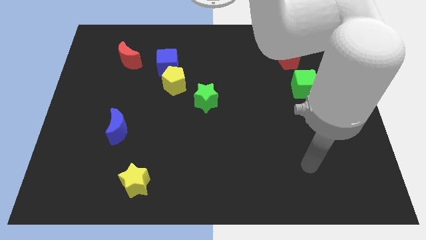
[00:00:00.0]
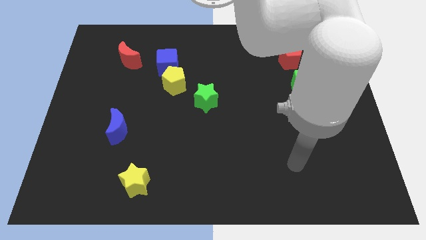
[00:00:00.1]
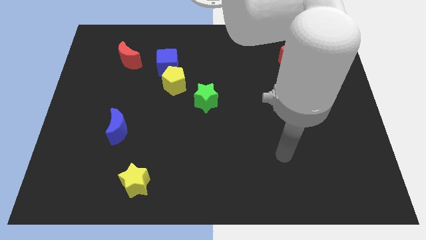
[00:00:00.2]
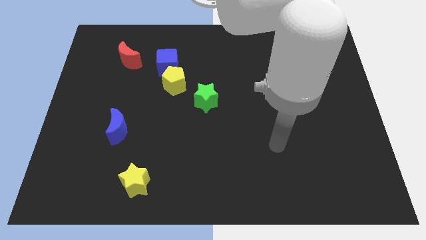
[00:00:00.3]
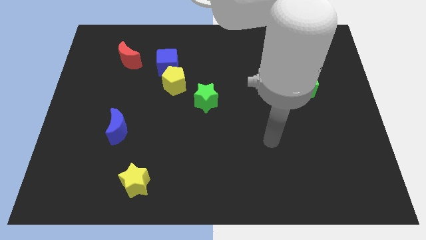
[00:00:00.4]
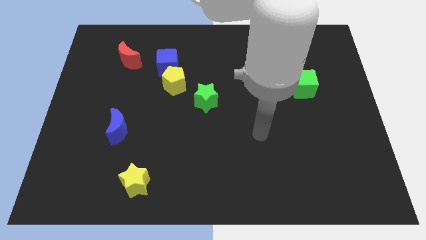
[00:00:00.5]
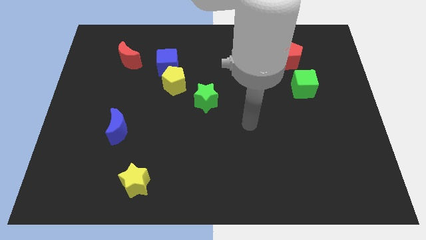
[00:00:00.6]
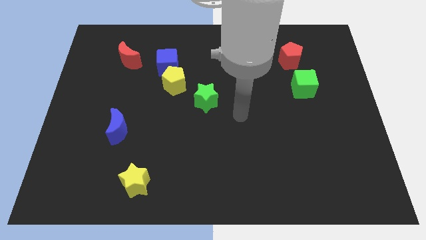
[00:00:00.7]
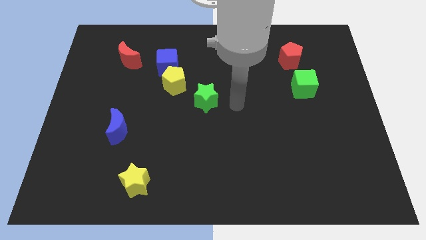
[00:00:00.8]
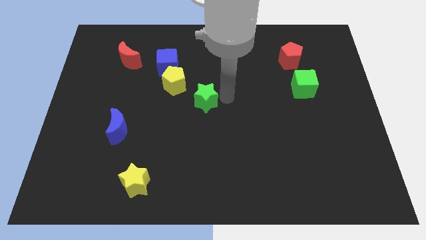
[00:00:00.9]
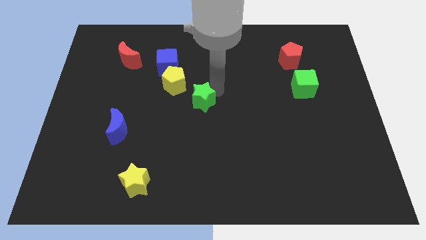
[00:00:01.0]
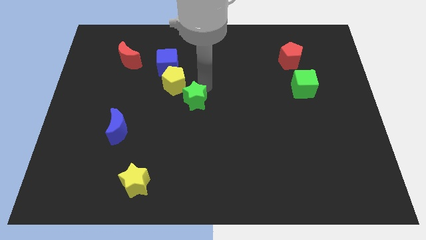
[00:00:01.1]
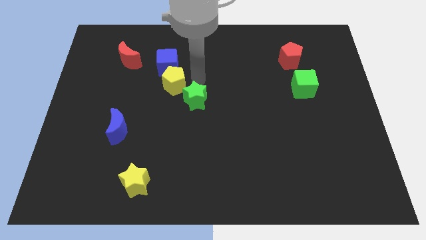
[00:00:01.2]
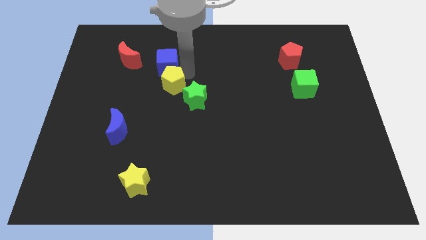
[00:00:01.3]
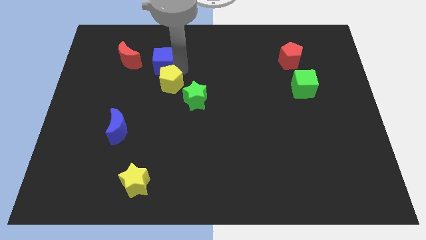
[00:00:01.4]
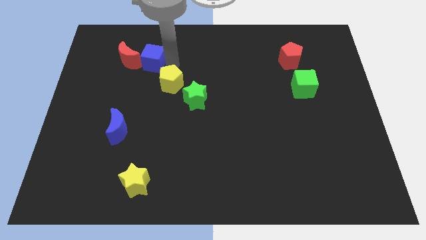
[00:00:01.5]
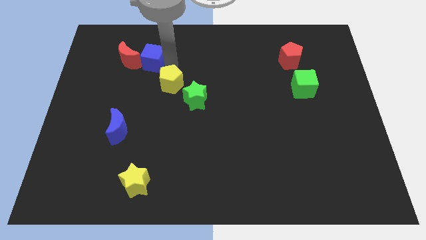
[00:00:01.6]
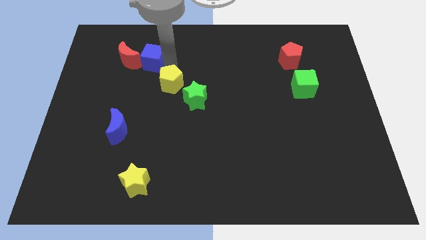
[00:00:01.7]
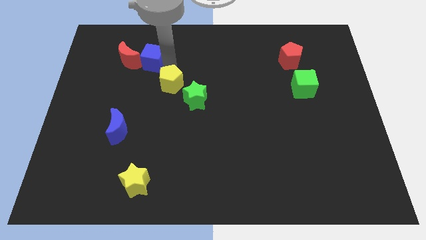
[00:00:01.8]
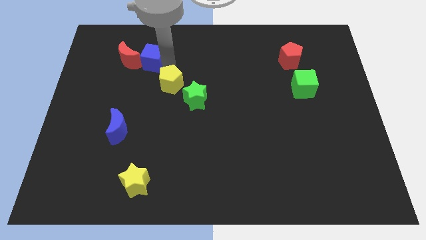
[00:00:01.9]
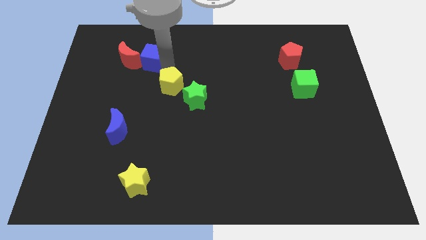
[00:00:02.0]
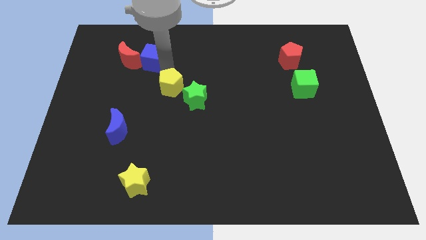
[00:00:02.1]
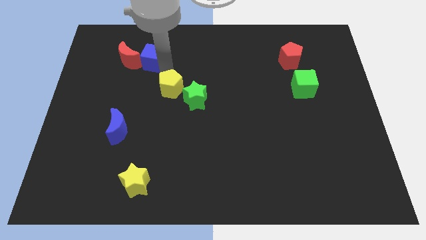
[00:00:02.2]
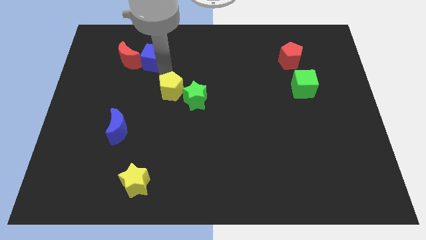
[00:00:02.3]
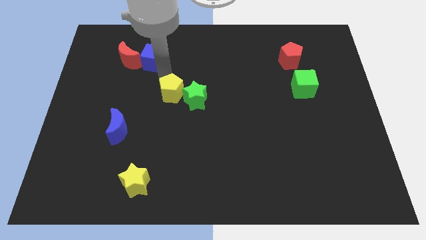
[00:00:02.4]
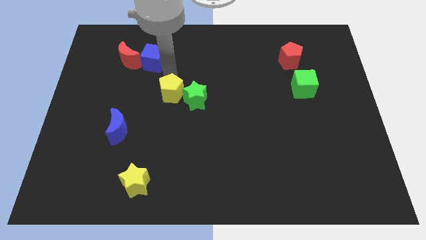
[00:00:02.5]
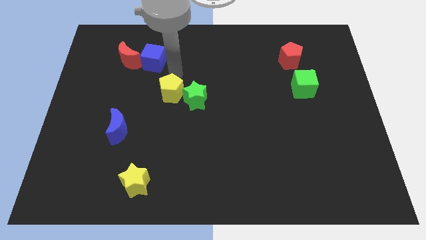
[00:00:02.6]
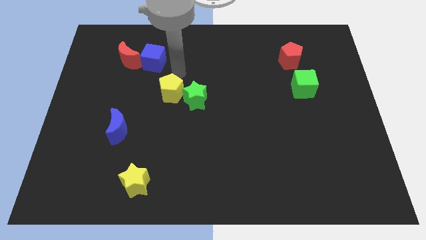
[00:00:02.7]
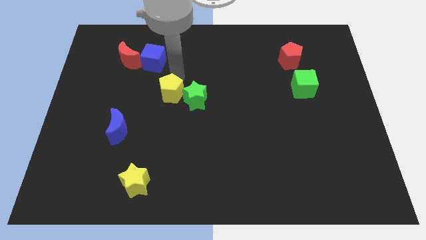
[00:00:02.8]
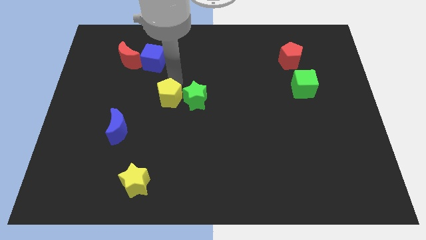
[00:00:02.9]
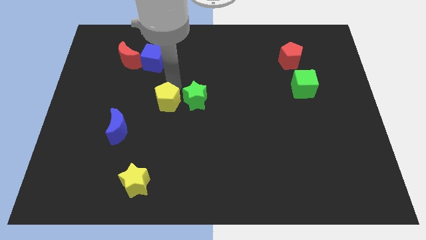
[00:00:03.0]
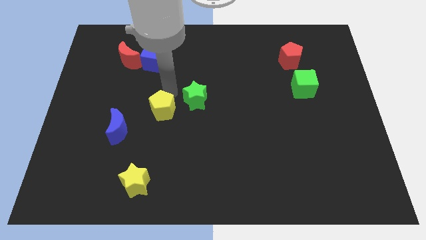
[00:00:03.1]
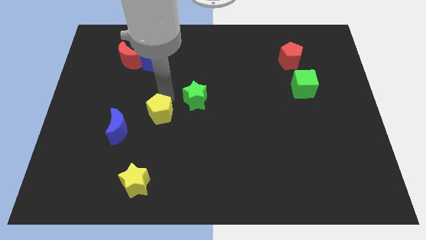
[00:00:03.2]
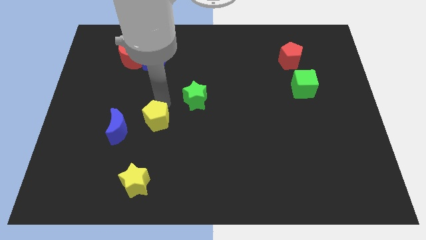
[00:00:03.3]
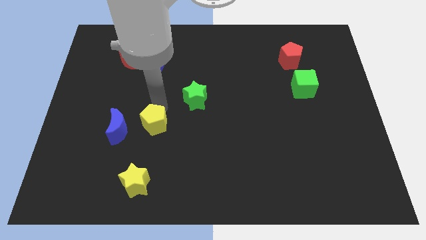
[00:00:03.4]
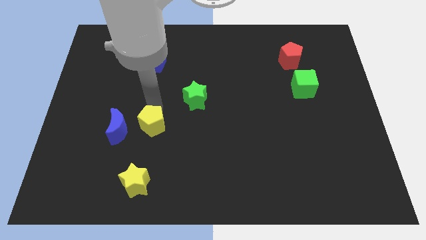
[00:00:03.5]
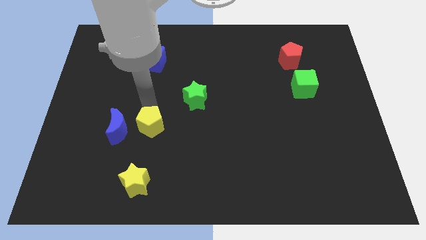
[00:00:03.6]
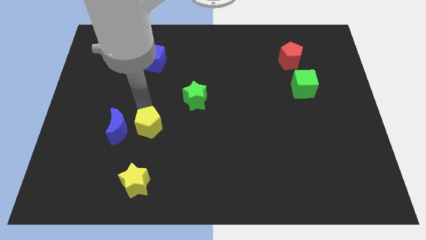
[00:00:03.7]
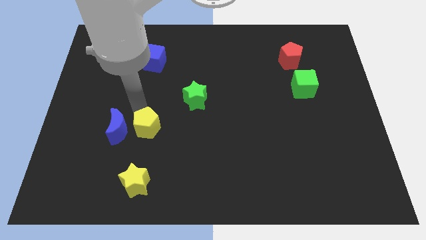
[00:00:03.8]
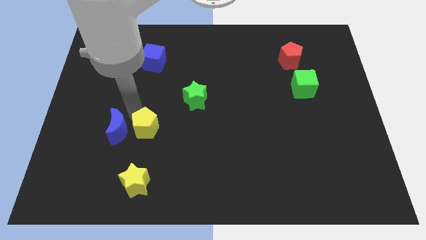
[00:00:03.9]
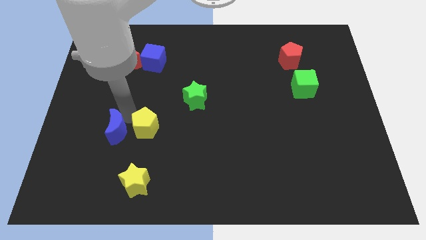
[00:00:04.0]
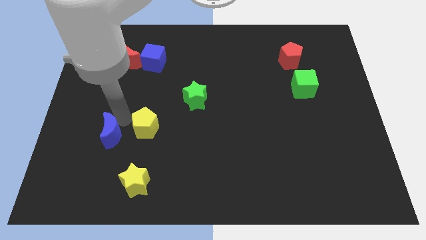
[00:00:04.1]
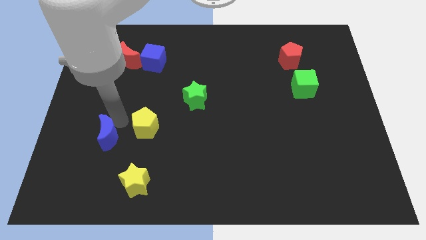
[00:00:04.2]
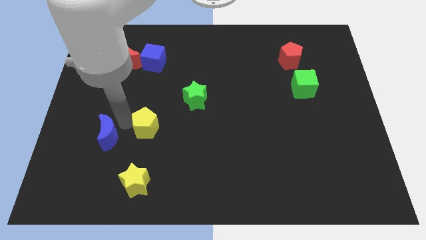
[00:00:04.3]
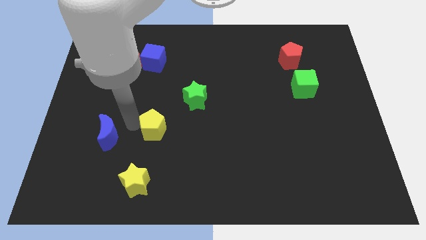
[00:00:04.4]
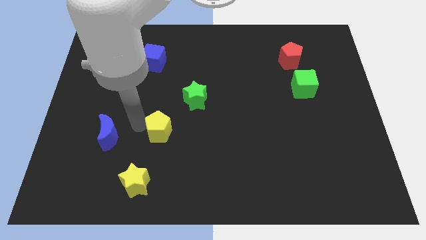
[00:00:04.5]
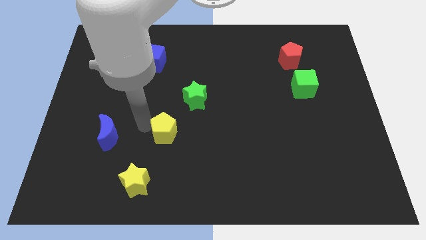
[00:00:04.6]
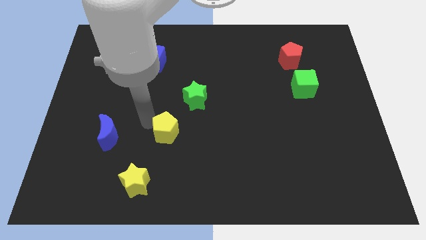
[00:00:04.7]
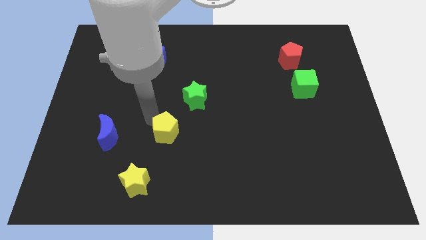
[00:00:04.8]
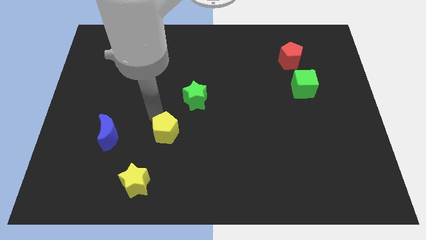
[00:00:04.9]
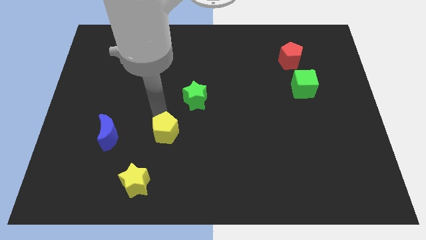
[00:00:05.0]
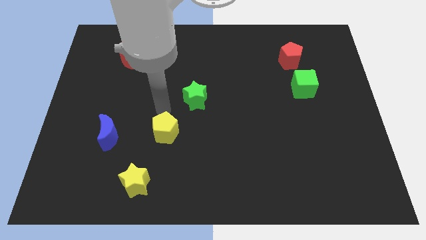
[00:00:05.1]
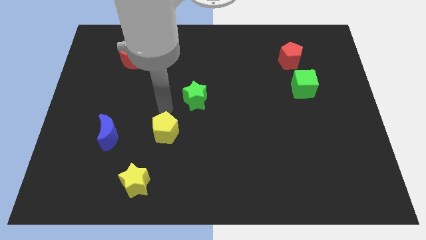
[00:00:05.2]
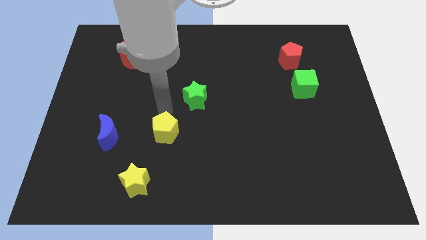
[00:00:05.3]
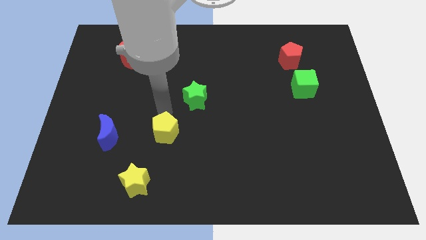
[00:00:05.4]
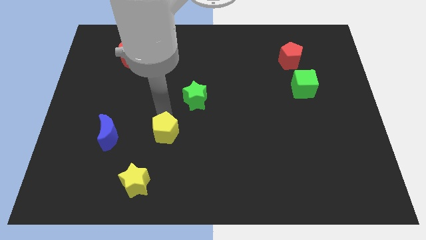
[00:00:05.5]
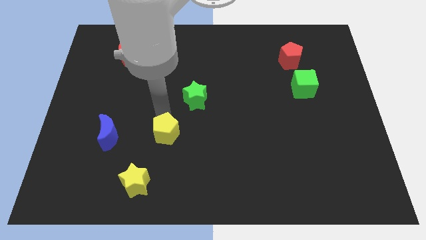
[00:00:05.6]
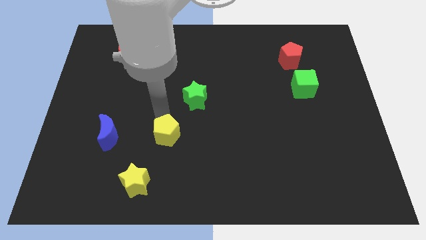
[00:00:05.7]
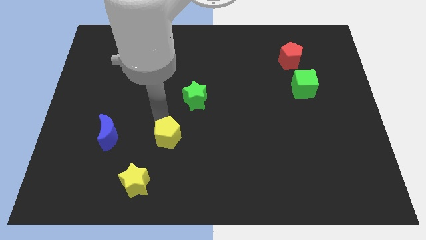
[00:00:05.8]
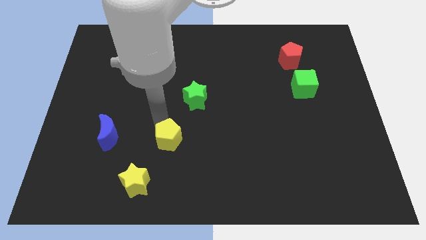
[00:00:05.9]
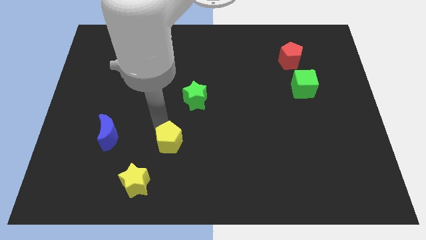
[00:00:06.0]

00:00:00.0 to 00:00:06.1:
push the yellow pentagon to the top right side of the yellow star

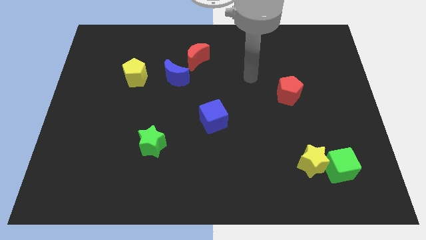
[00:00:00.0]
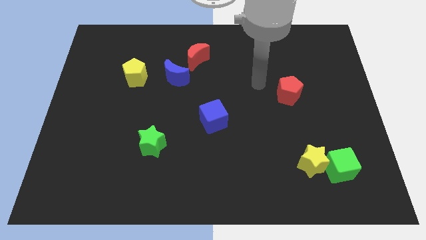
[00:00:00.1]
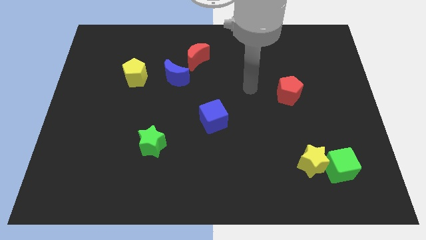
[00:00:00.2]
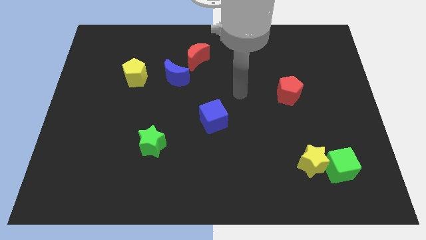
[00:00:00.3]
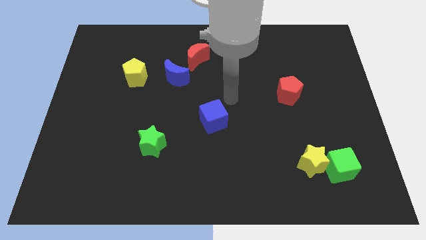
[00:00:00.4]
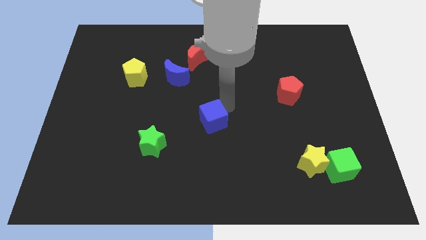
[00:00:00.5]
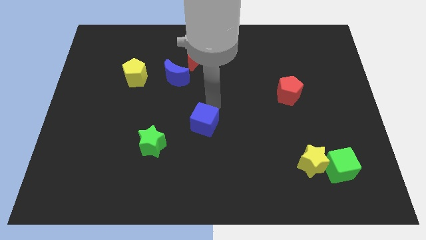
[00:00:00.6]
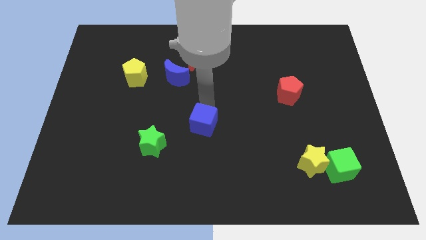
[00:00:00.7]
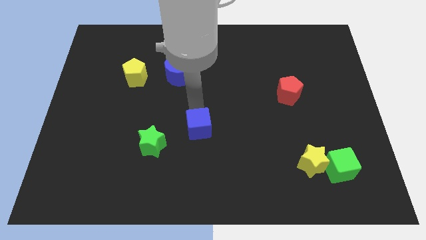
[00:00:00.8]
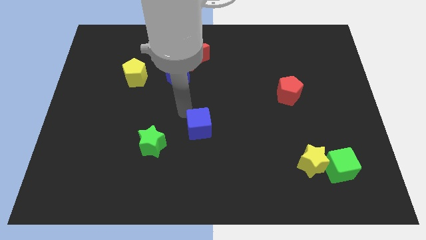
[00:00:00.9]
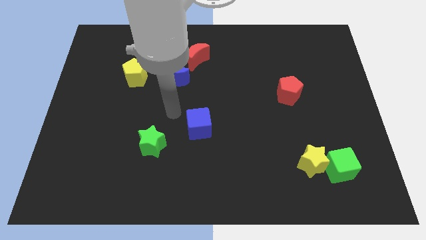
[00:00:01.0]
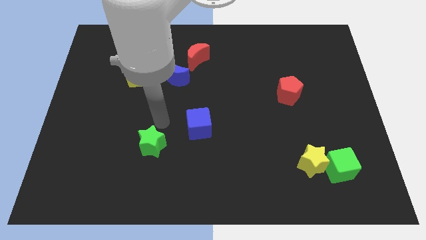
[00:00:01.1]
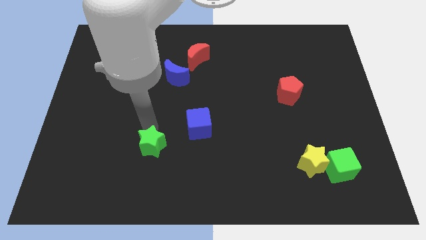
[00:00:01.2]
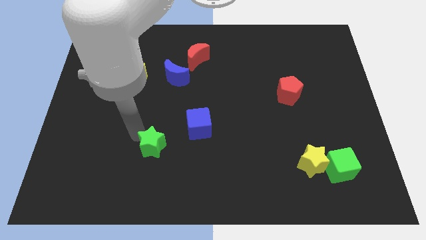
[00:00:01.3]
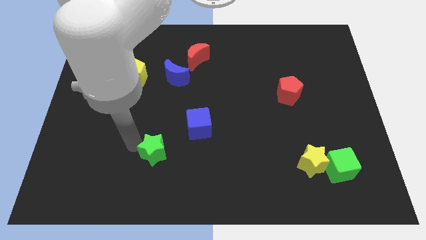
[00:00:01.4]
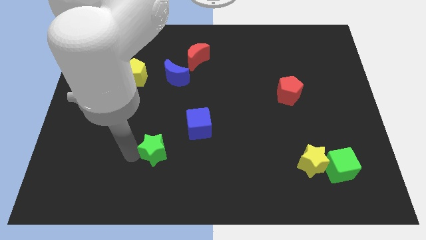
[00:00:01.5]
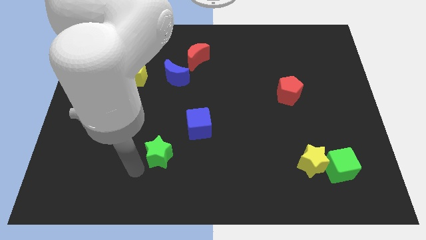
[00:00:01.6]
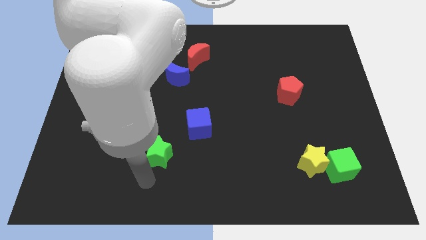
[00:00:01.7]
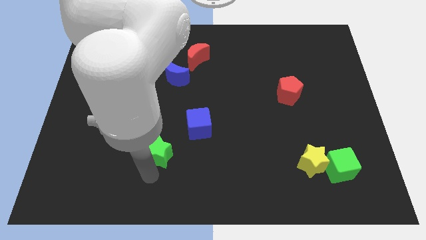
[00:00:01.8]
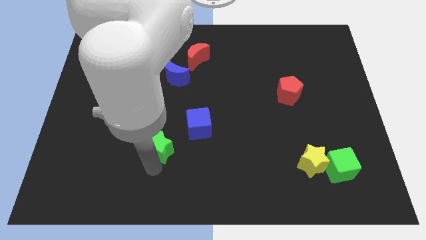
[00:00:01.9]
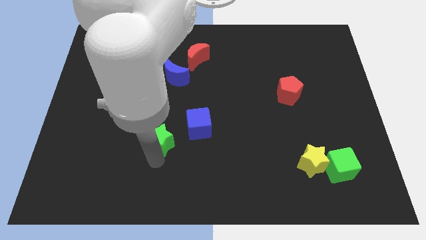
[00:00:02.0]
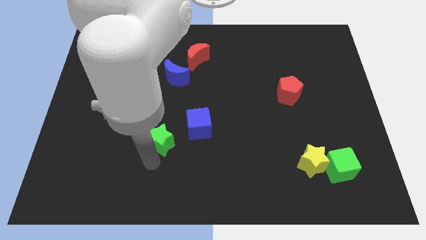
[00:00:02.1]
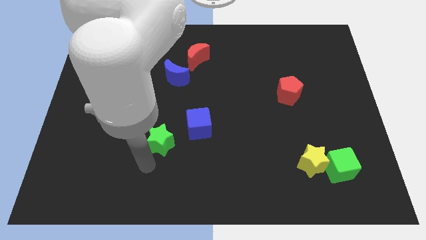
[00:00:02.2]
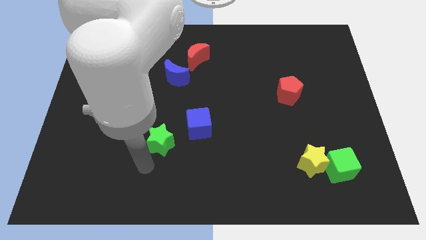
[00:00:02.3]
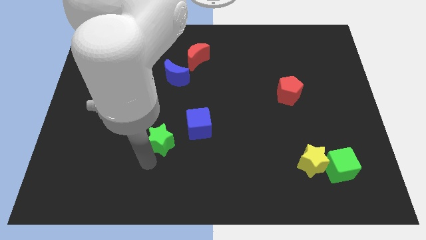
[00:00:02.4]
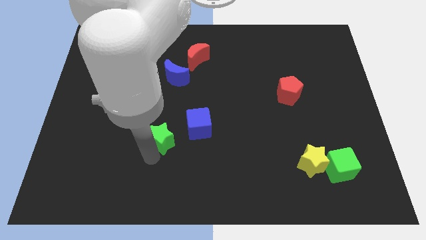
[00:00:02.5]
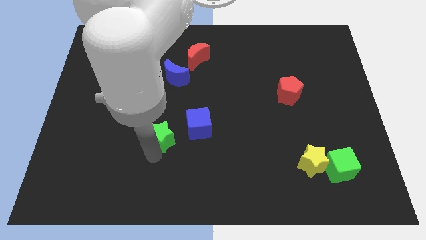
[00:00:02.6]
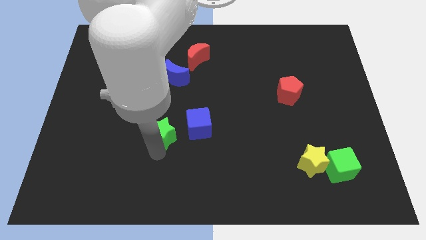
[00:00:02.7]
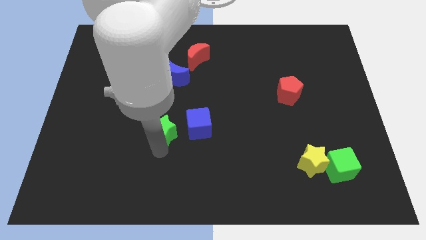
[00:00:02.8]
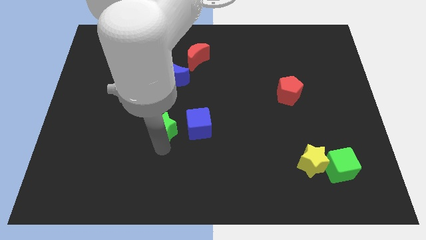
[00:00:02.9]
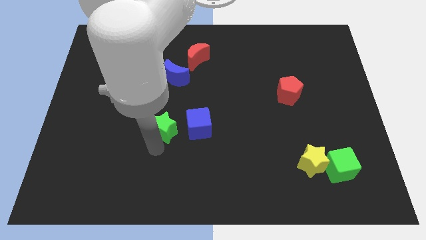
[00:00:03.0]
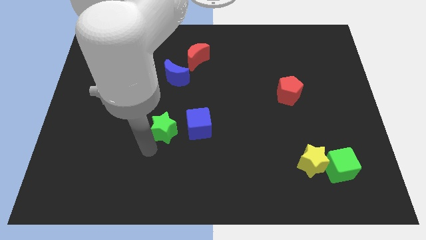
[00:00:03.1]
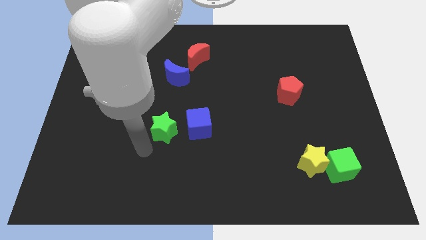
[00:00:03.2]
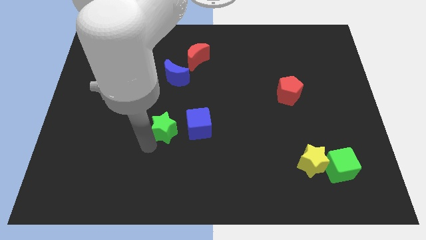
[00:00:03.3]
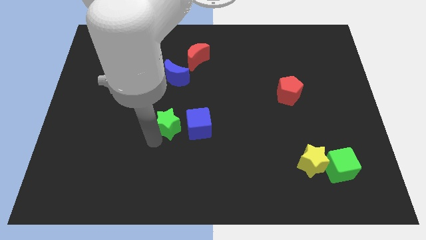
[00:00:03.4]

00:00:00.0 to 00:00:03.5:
push the green star to the top left side of the blue cube
